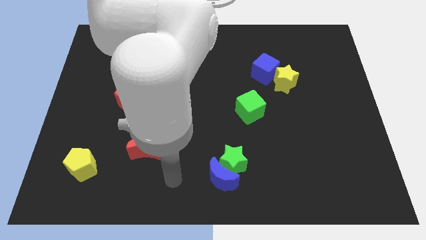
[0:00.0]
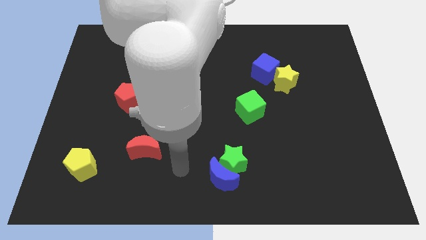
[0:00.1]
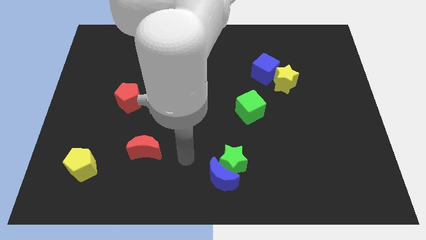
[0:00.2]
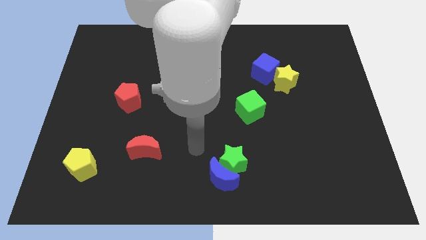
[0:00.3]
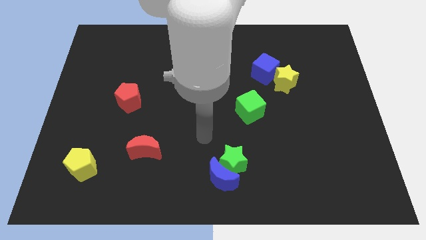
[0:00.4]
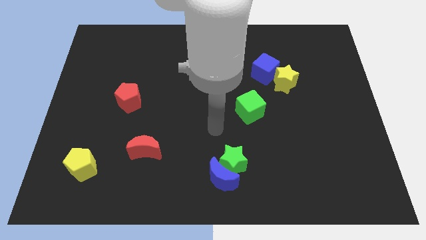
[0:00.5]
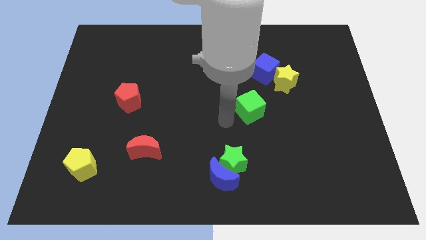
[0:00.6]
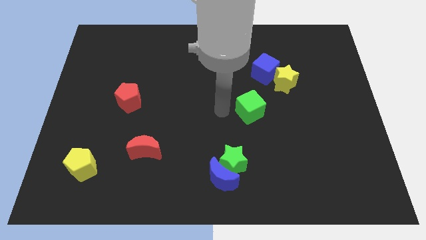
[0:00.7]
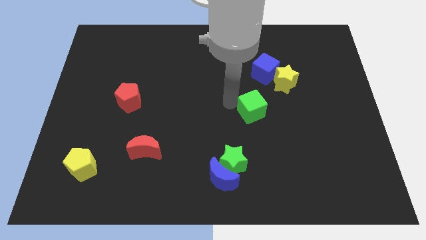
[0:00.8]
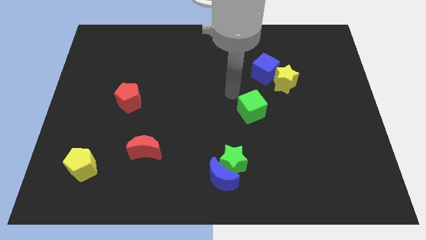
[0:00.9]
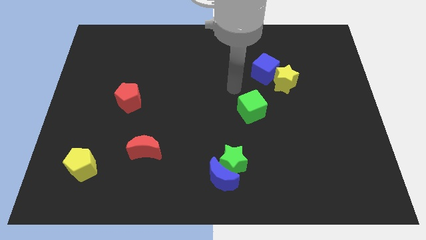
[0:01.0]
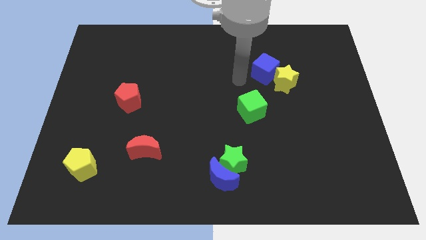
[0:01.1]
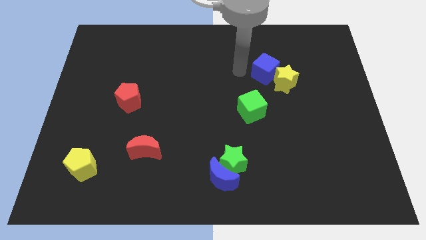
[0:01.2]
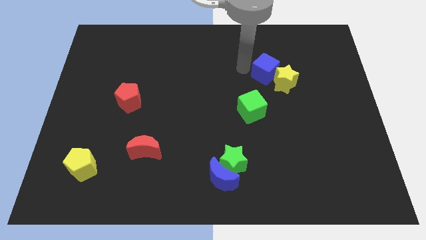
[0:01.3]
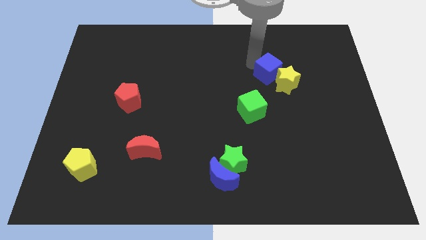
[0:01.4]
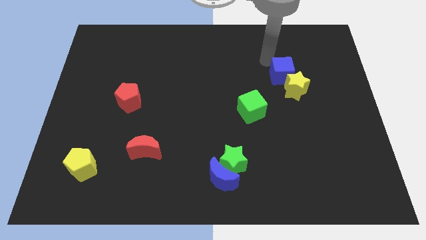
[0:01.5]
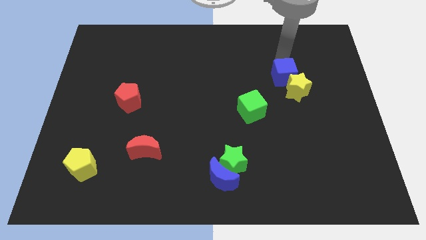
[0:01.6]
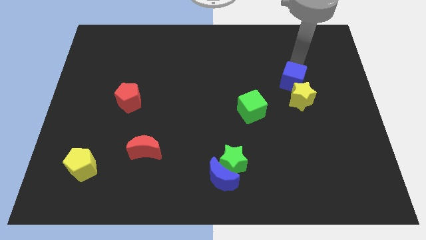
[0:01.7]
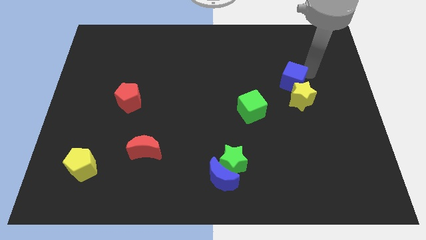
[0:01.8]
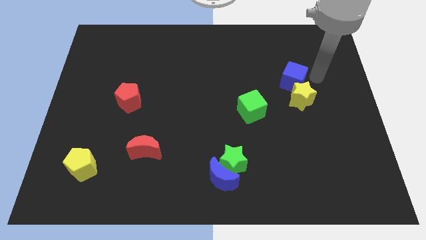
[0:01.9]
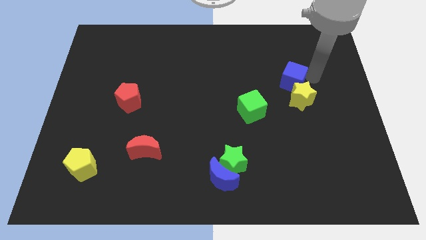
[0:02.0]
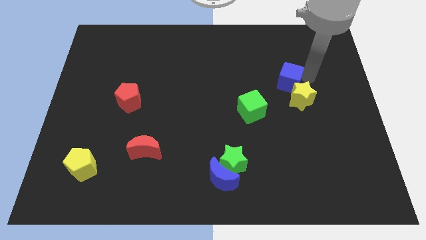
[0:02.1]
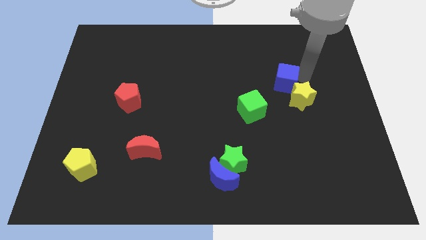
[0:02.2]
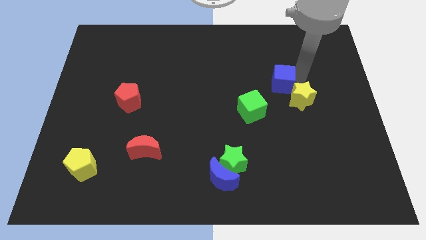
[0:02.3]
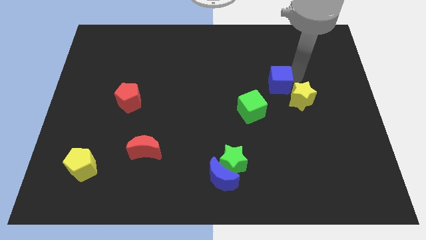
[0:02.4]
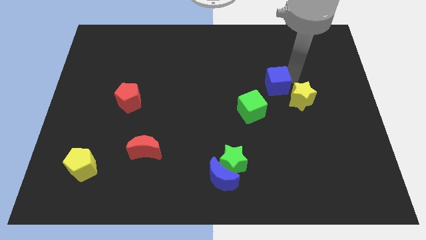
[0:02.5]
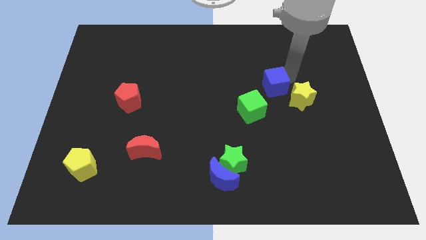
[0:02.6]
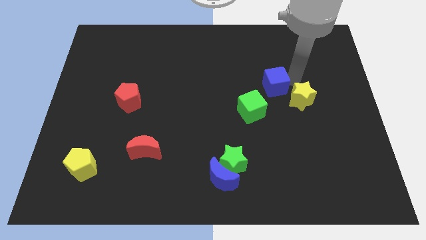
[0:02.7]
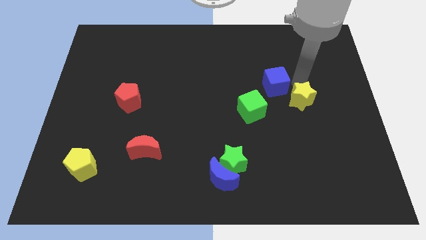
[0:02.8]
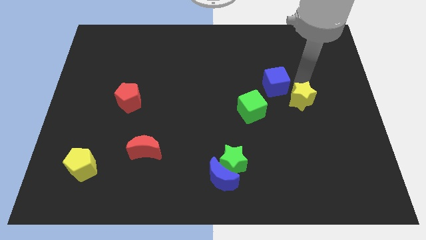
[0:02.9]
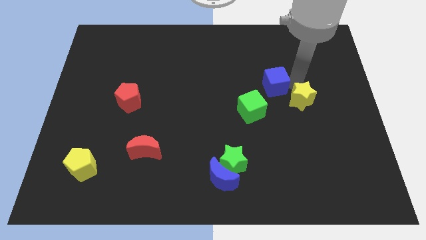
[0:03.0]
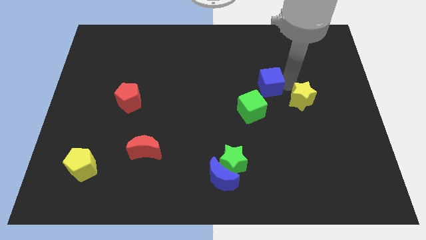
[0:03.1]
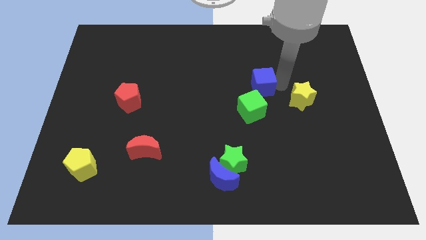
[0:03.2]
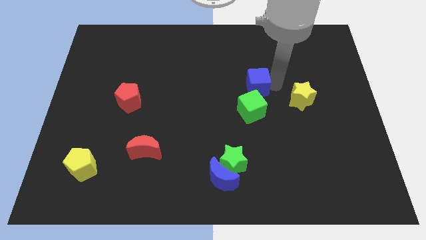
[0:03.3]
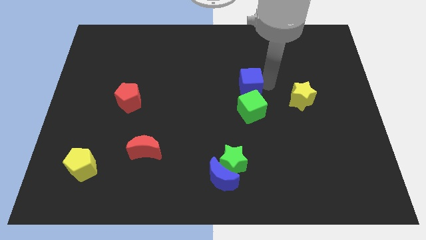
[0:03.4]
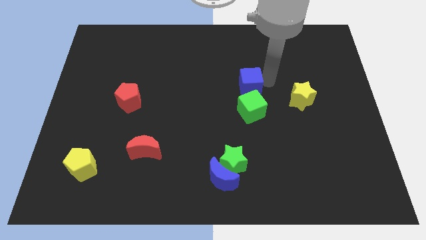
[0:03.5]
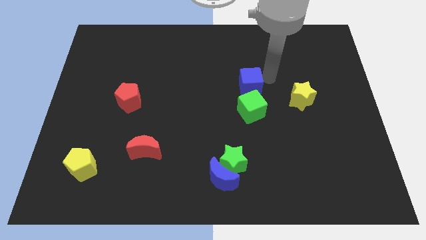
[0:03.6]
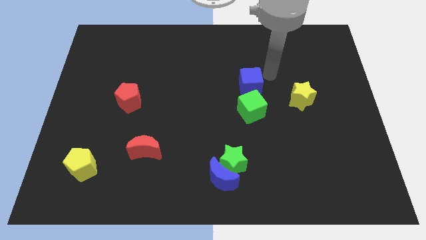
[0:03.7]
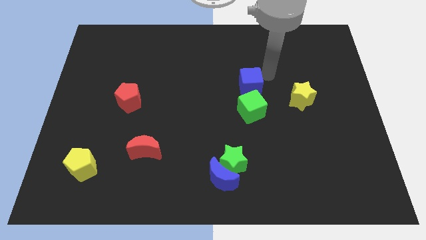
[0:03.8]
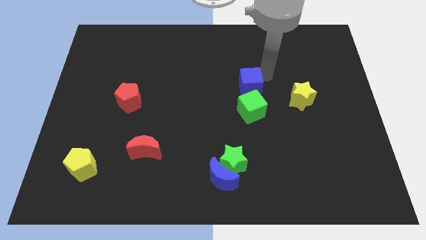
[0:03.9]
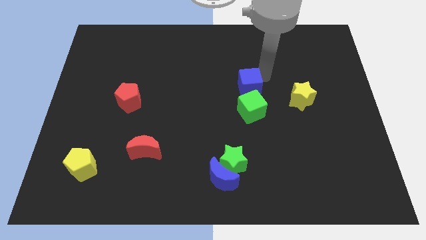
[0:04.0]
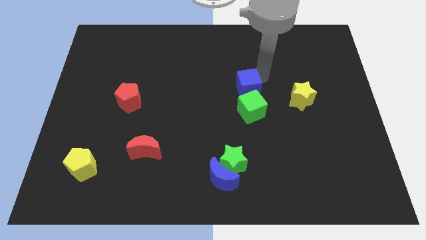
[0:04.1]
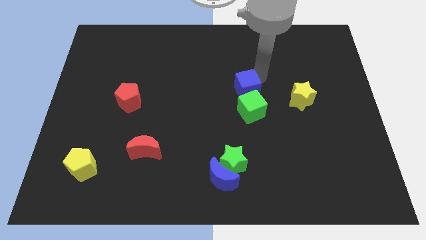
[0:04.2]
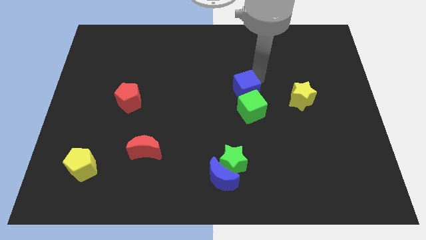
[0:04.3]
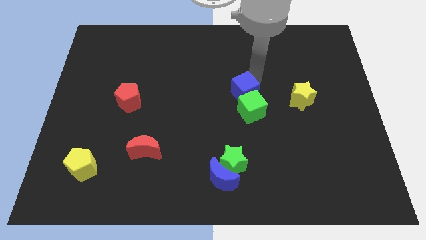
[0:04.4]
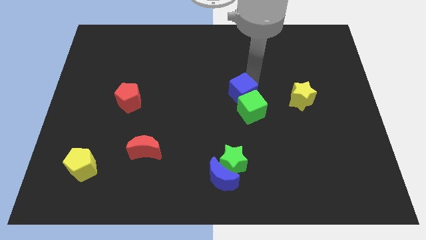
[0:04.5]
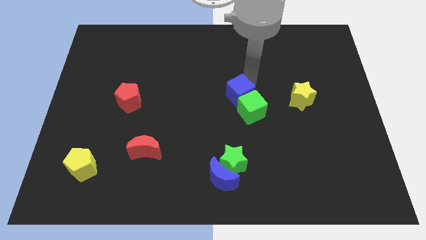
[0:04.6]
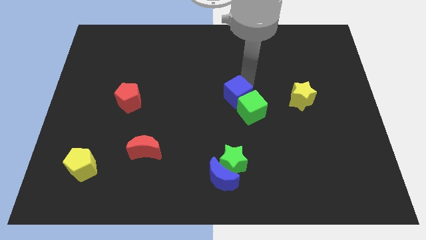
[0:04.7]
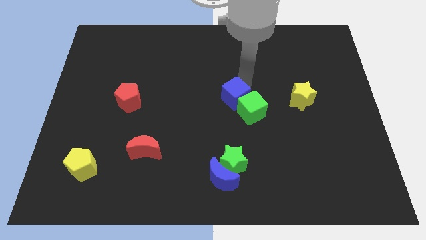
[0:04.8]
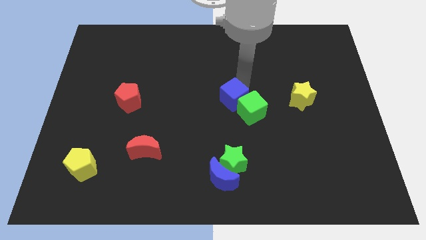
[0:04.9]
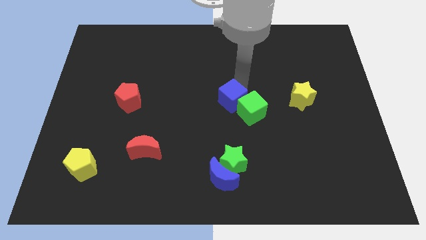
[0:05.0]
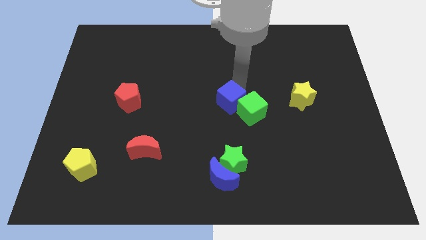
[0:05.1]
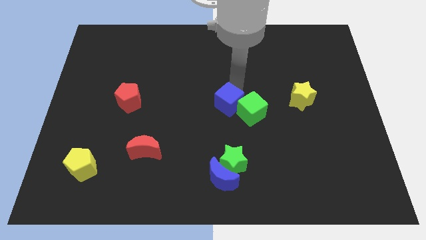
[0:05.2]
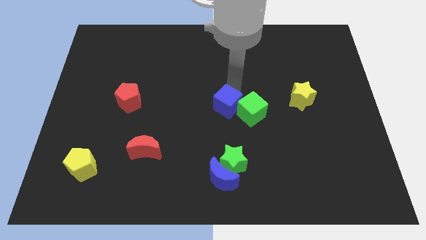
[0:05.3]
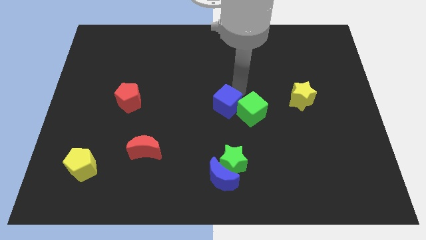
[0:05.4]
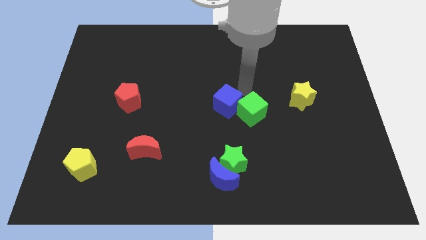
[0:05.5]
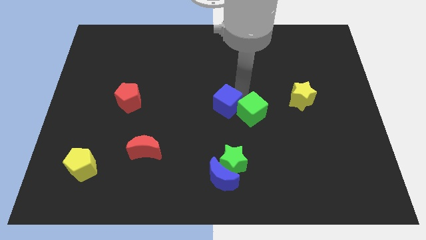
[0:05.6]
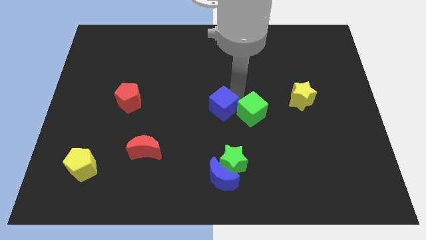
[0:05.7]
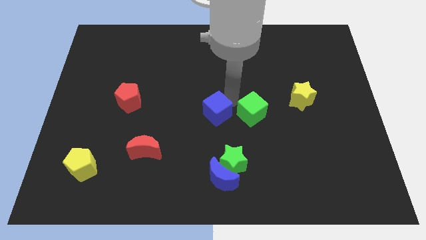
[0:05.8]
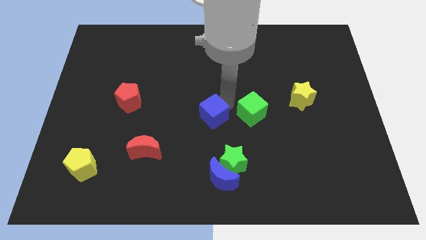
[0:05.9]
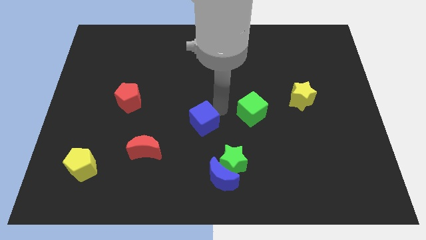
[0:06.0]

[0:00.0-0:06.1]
slide the blue cube downwards and then left

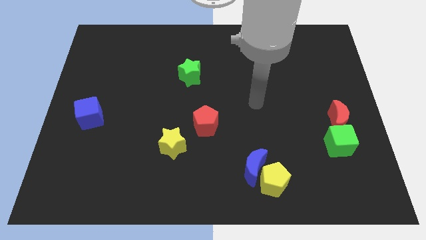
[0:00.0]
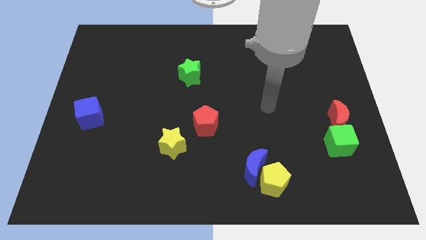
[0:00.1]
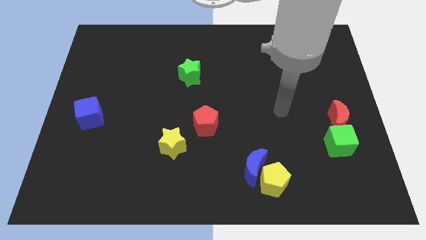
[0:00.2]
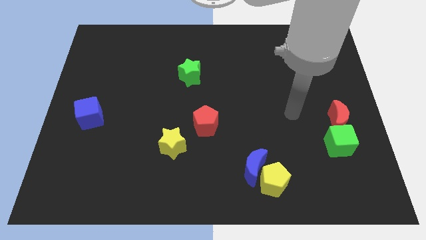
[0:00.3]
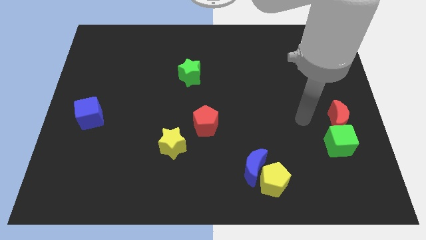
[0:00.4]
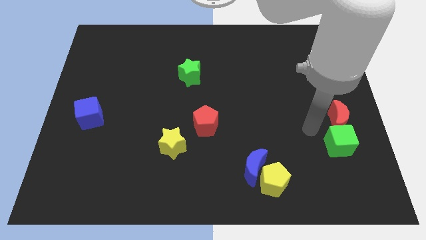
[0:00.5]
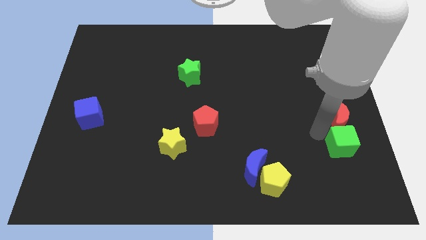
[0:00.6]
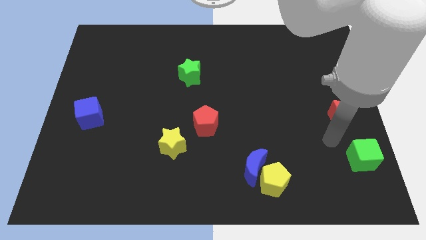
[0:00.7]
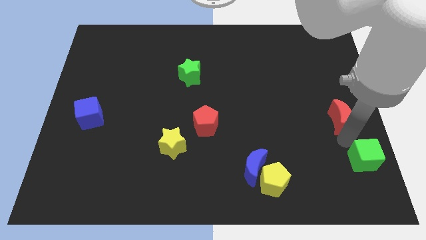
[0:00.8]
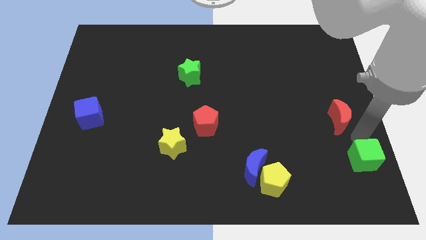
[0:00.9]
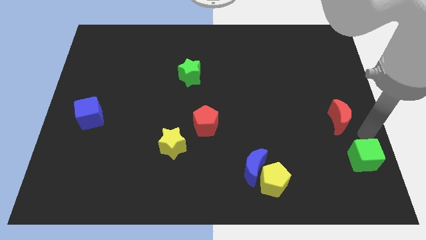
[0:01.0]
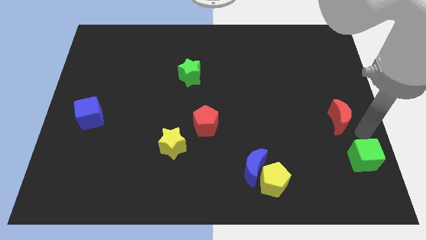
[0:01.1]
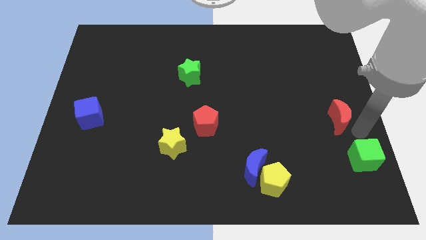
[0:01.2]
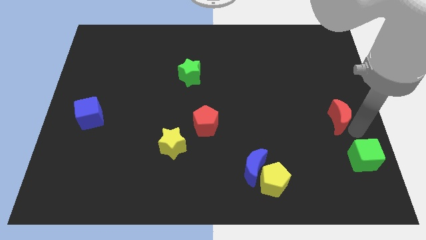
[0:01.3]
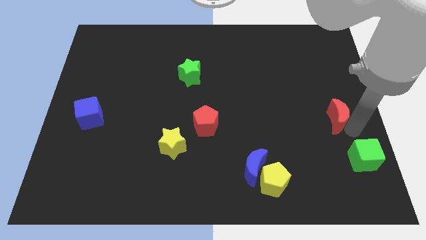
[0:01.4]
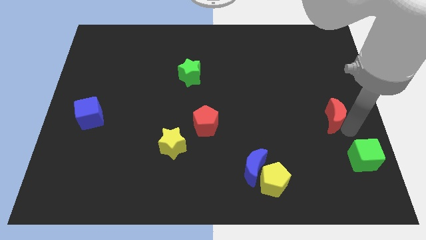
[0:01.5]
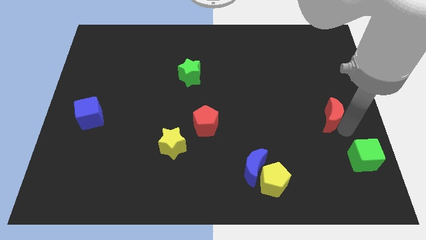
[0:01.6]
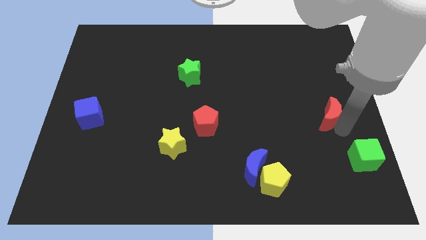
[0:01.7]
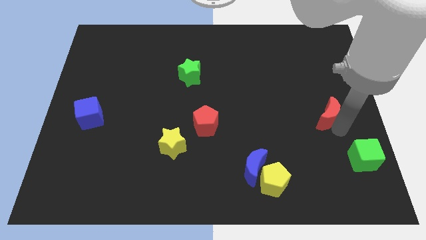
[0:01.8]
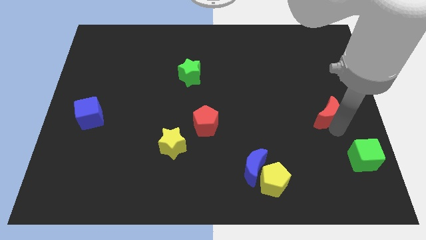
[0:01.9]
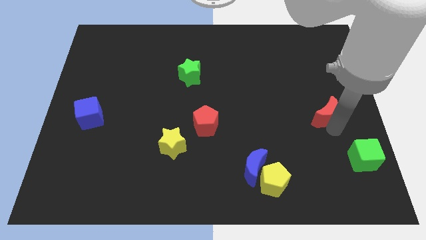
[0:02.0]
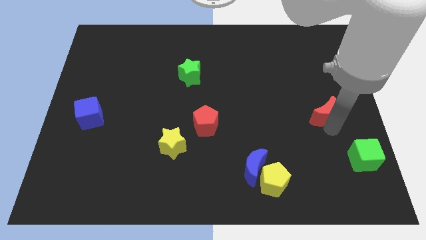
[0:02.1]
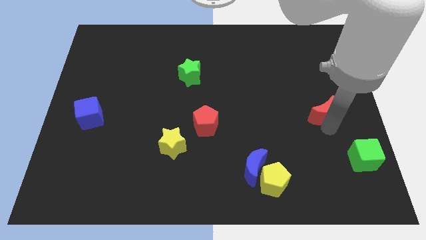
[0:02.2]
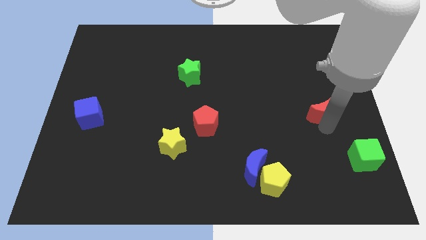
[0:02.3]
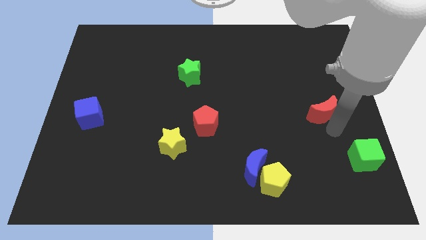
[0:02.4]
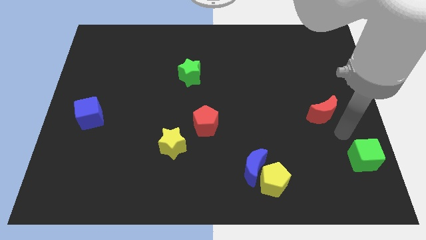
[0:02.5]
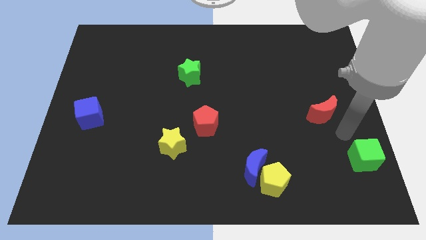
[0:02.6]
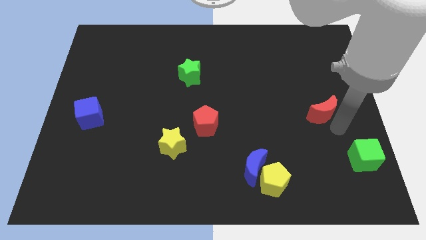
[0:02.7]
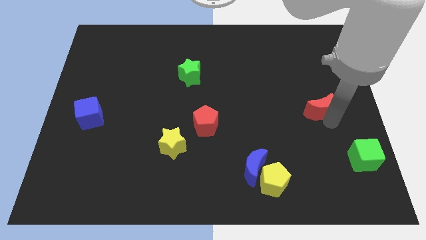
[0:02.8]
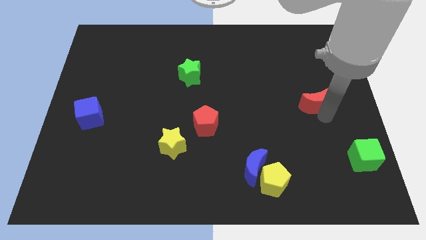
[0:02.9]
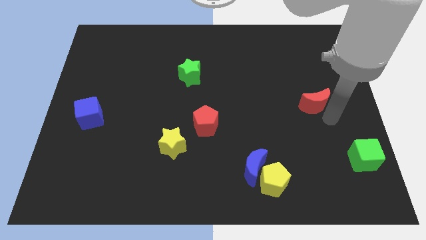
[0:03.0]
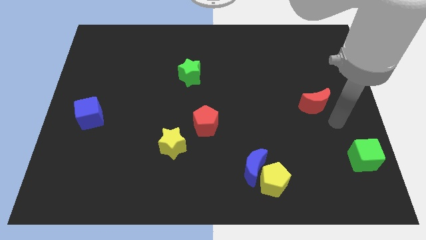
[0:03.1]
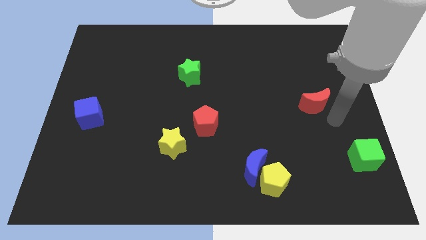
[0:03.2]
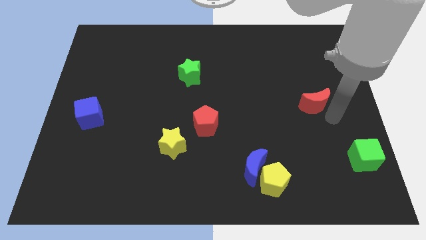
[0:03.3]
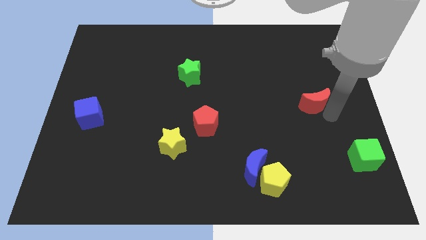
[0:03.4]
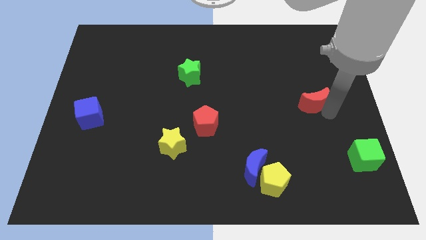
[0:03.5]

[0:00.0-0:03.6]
slide the red moon somewhat upwards and to the left diagonally
